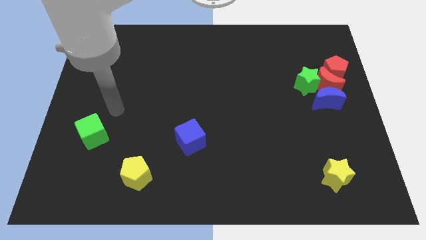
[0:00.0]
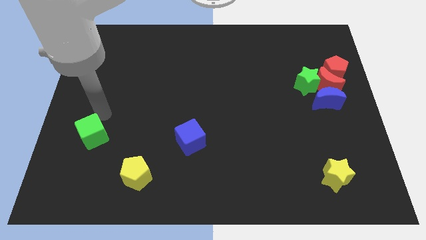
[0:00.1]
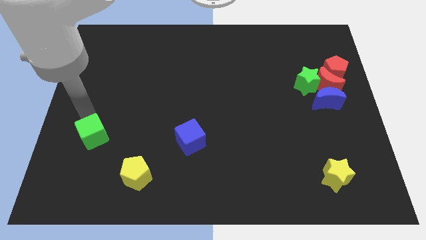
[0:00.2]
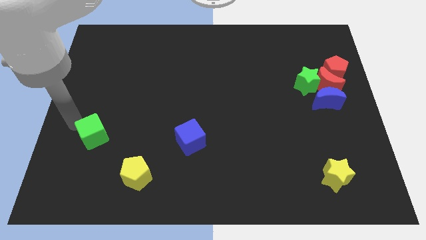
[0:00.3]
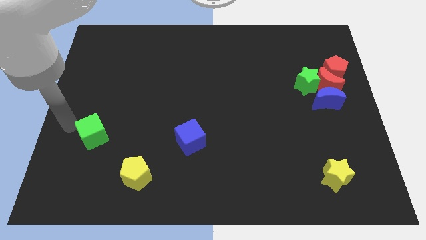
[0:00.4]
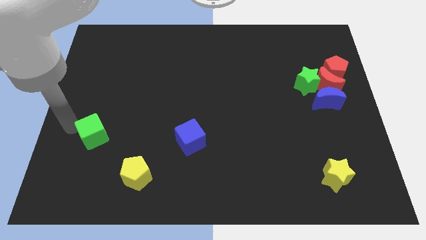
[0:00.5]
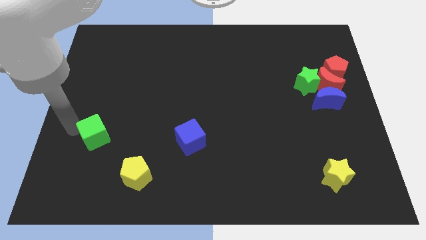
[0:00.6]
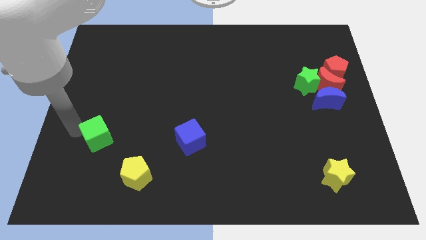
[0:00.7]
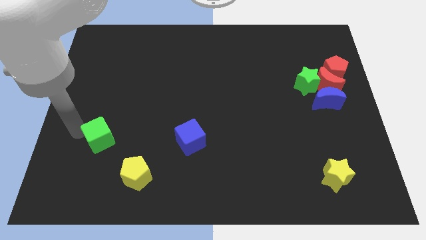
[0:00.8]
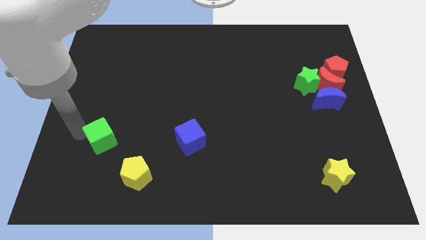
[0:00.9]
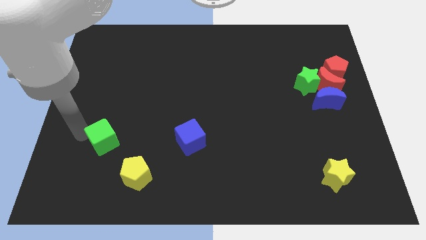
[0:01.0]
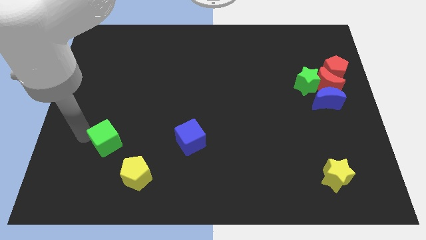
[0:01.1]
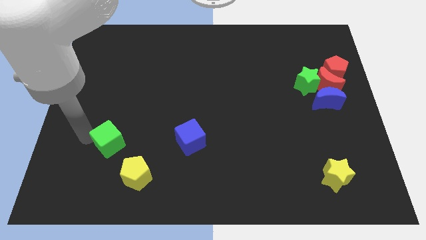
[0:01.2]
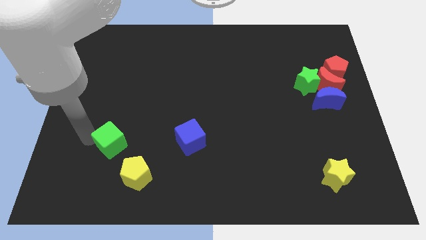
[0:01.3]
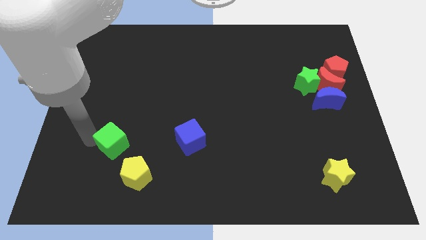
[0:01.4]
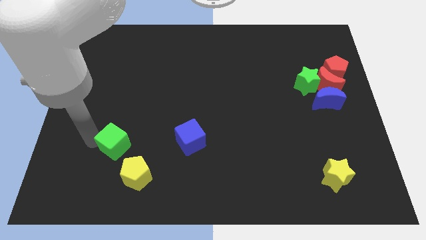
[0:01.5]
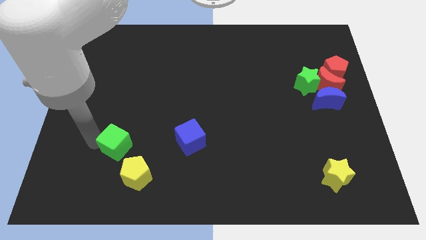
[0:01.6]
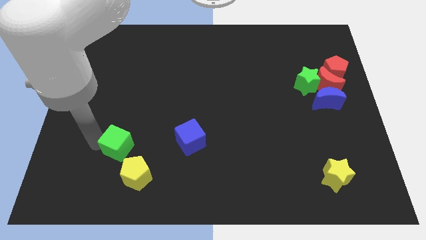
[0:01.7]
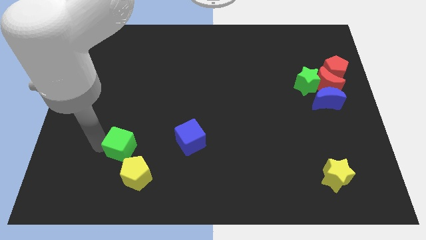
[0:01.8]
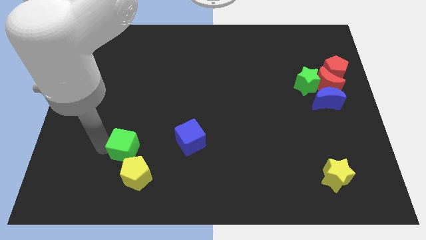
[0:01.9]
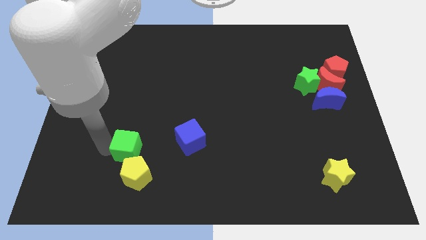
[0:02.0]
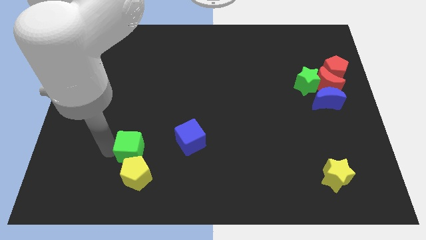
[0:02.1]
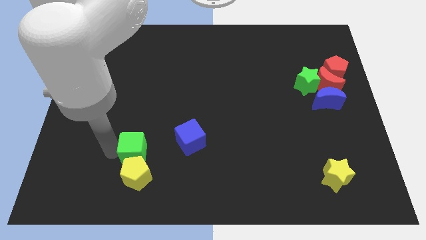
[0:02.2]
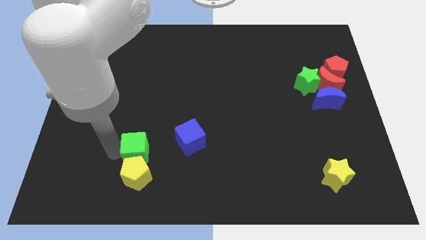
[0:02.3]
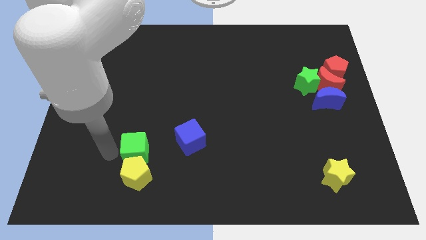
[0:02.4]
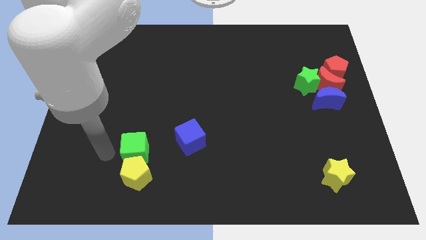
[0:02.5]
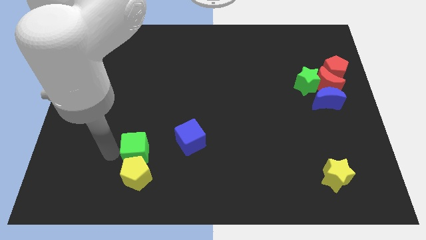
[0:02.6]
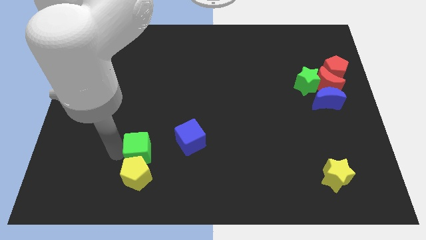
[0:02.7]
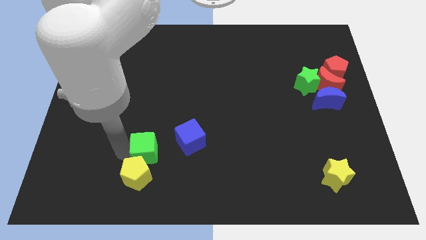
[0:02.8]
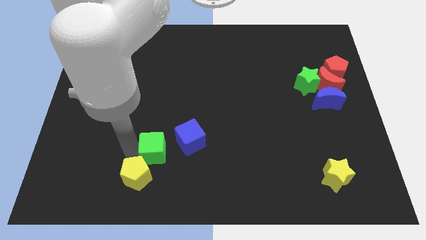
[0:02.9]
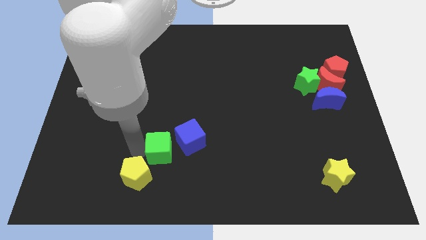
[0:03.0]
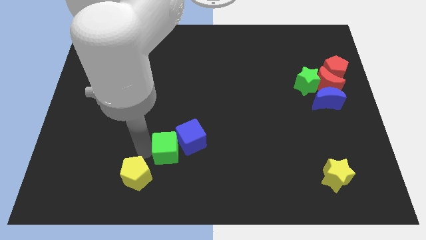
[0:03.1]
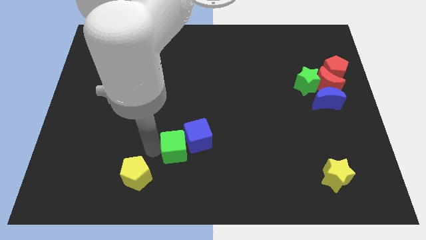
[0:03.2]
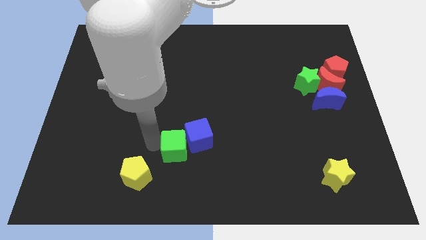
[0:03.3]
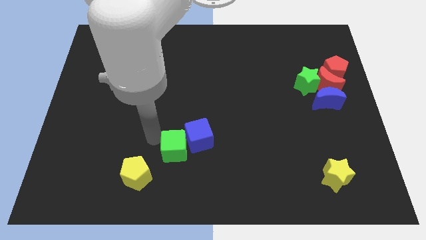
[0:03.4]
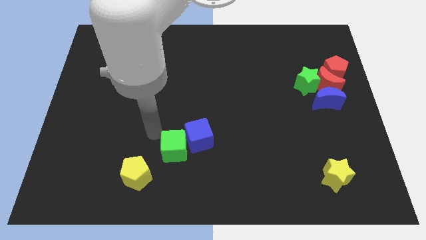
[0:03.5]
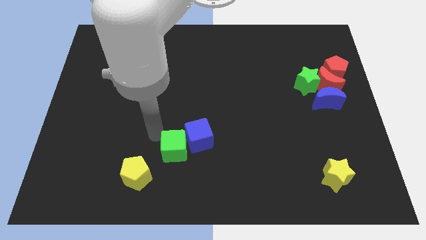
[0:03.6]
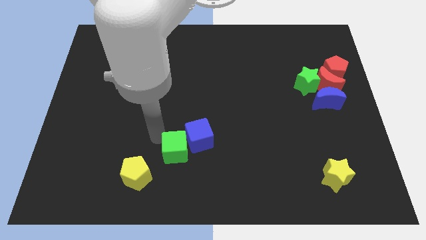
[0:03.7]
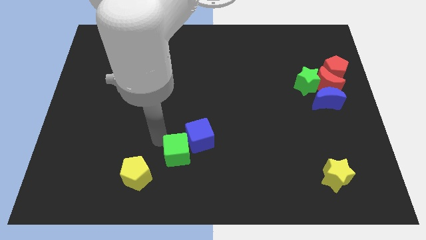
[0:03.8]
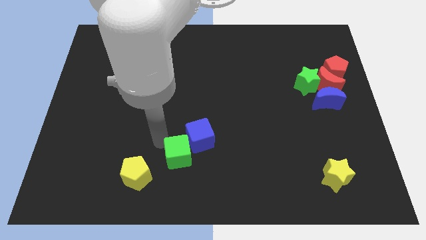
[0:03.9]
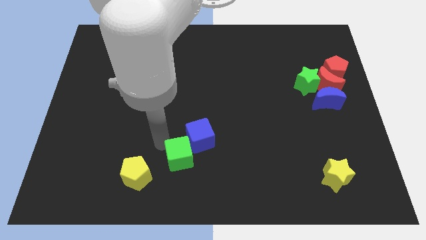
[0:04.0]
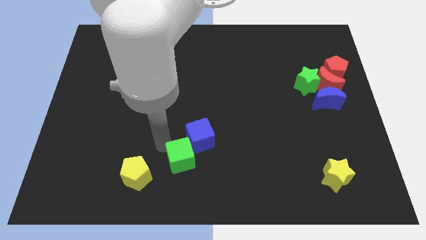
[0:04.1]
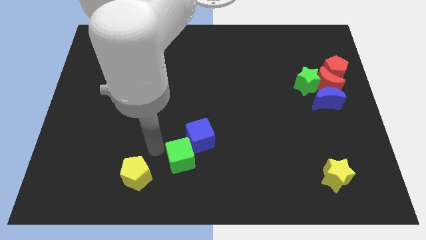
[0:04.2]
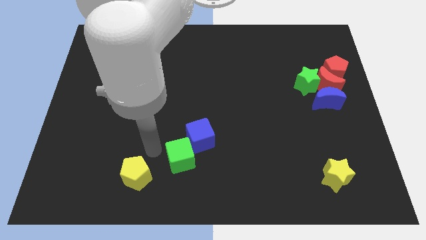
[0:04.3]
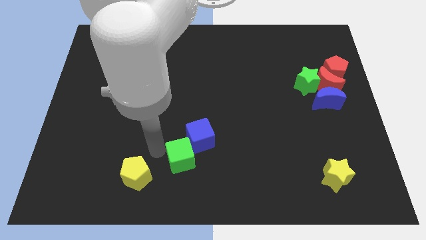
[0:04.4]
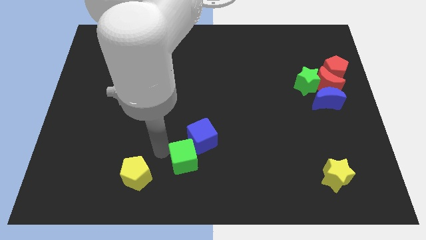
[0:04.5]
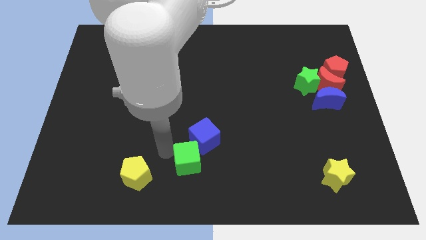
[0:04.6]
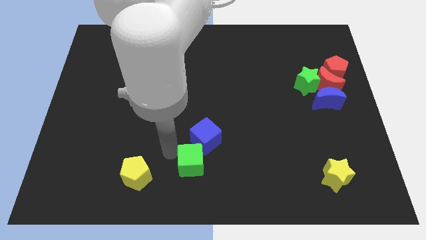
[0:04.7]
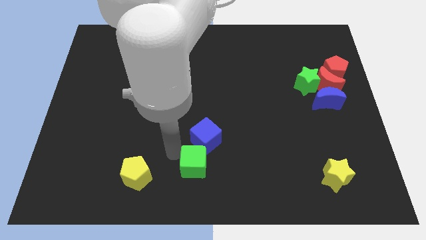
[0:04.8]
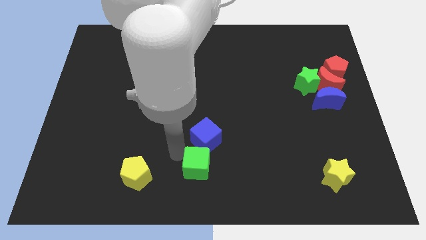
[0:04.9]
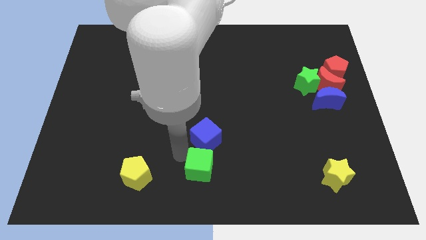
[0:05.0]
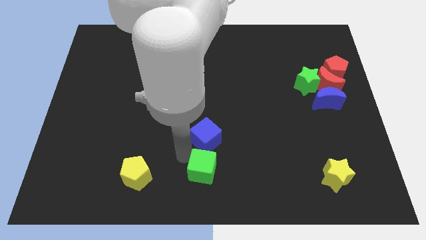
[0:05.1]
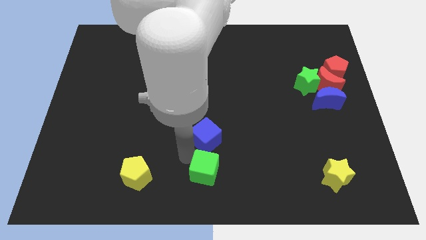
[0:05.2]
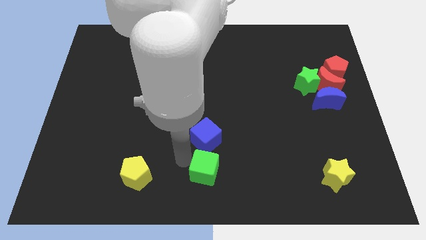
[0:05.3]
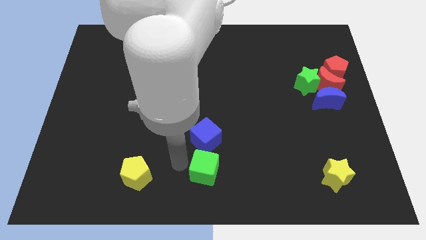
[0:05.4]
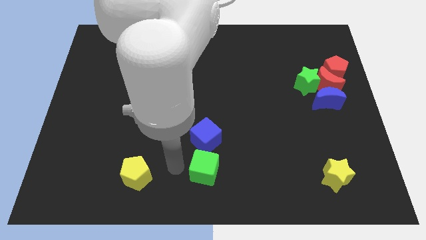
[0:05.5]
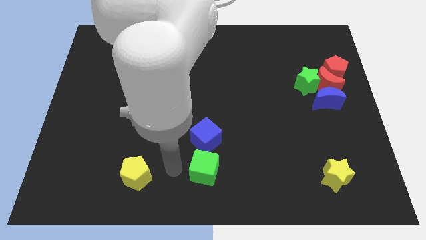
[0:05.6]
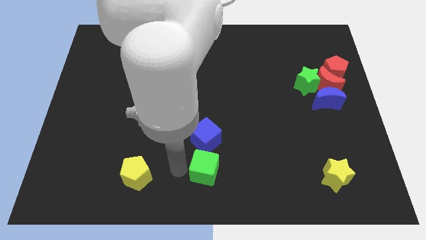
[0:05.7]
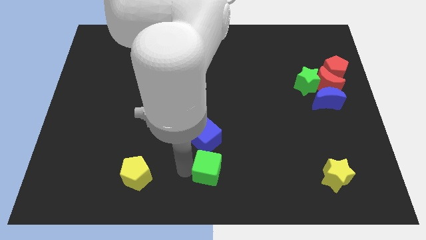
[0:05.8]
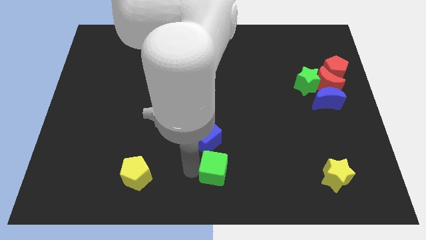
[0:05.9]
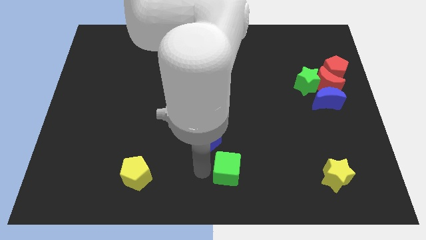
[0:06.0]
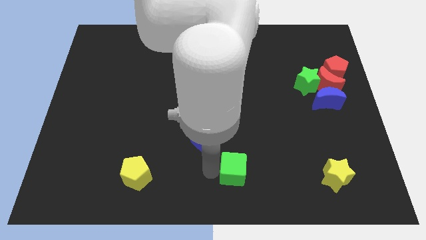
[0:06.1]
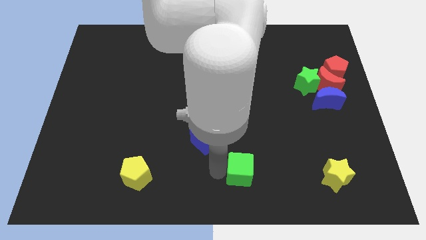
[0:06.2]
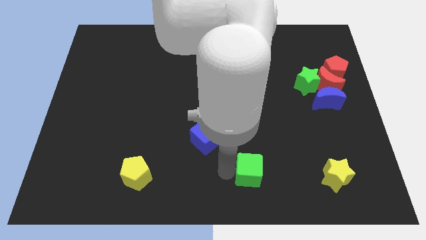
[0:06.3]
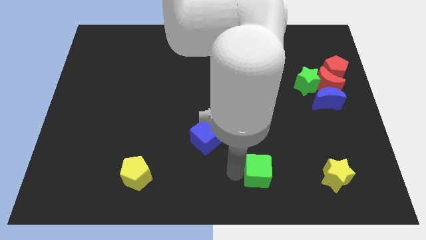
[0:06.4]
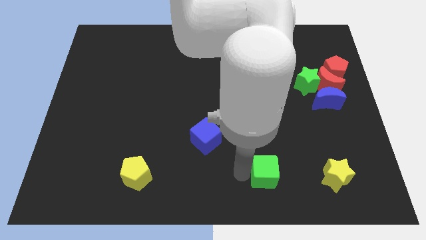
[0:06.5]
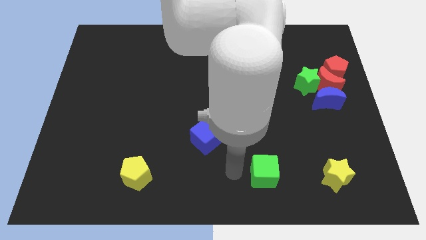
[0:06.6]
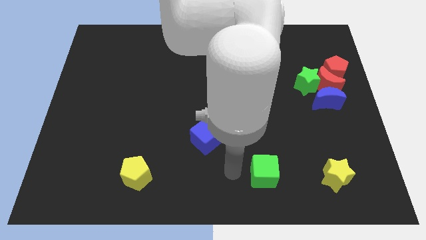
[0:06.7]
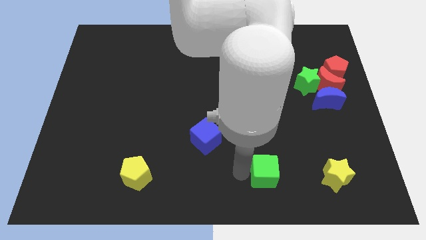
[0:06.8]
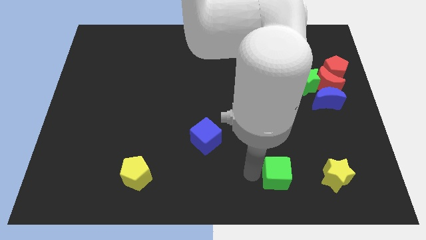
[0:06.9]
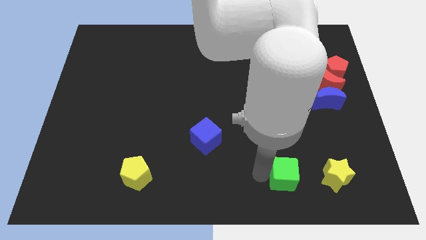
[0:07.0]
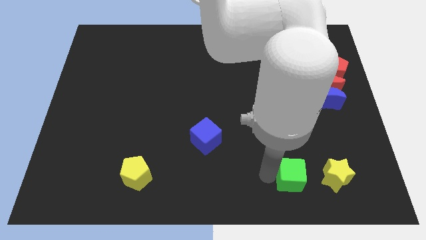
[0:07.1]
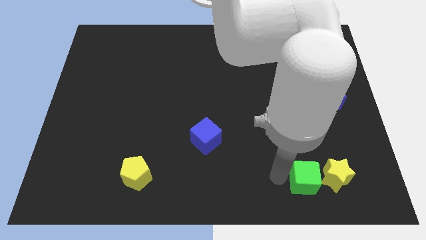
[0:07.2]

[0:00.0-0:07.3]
push the green cube next to the yellow star
